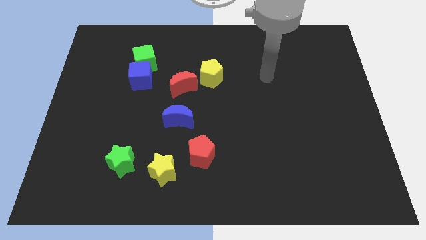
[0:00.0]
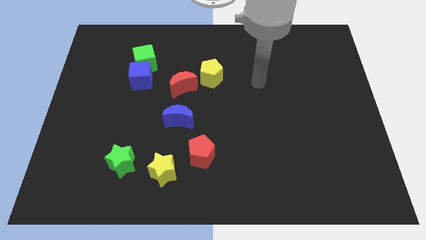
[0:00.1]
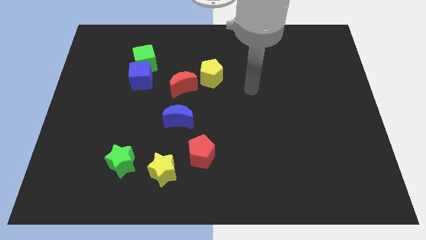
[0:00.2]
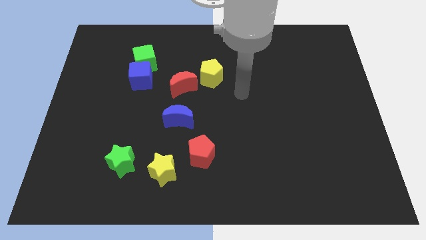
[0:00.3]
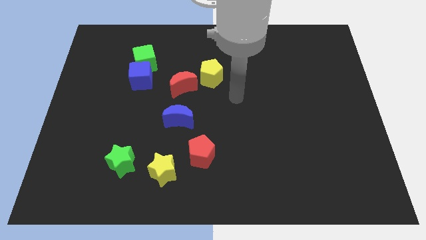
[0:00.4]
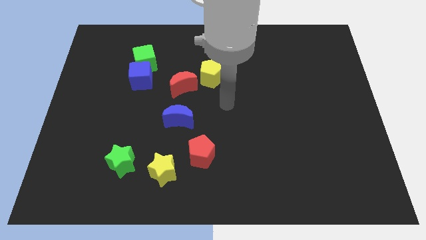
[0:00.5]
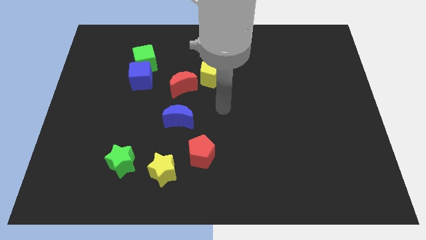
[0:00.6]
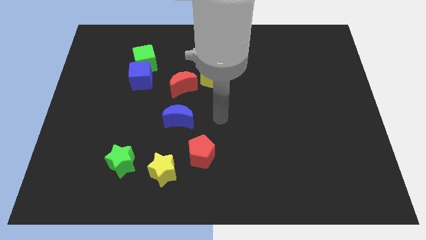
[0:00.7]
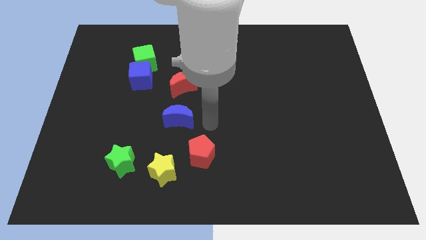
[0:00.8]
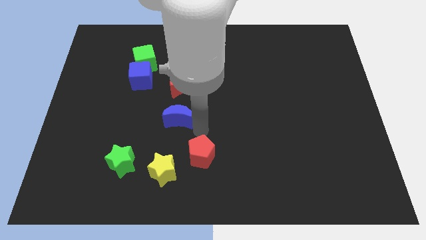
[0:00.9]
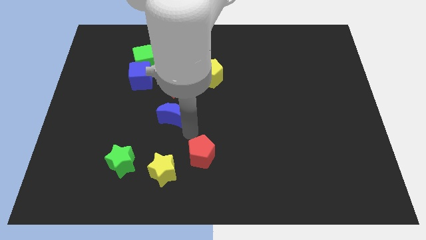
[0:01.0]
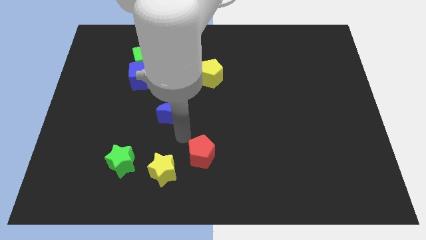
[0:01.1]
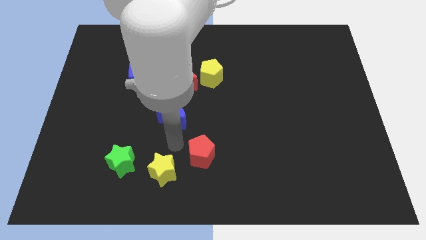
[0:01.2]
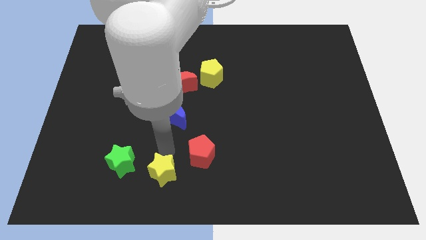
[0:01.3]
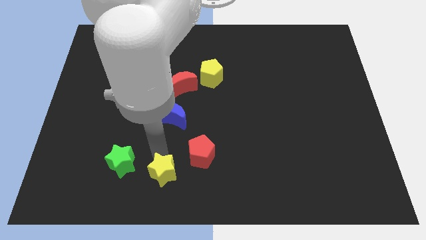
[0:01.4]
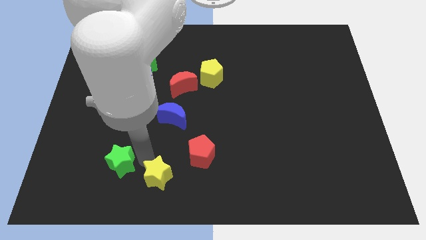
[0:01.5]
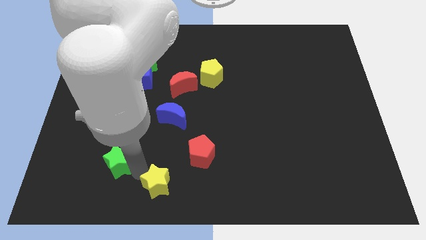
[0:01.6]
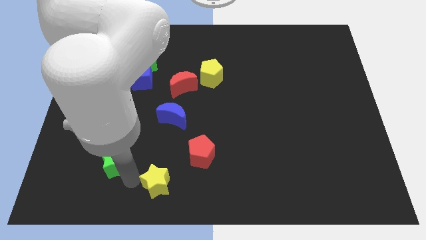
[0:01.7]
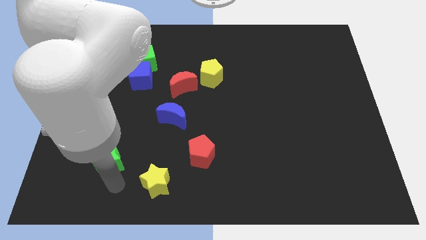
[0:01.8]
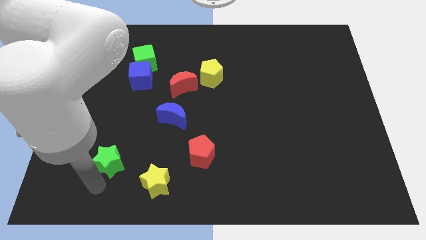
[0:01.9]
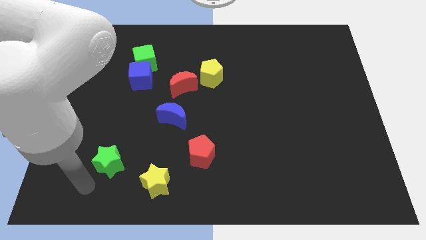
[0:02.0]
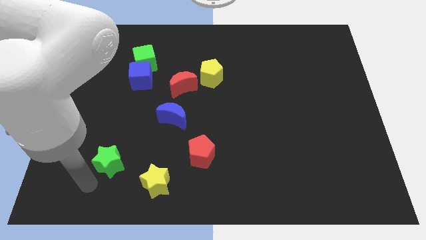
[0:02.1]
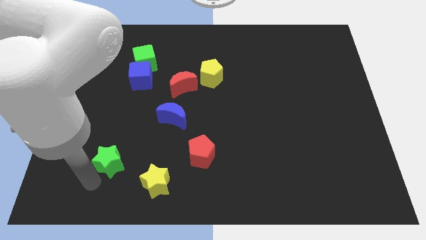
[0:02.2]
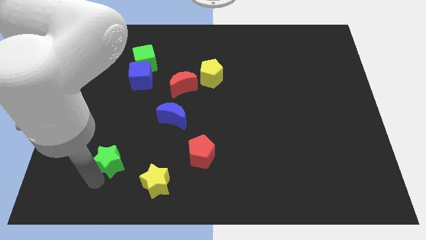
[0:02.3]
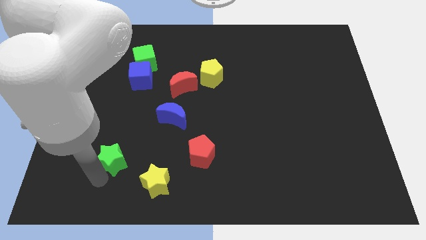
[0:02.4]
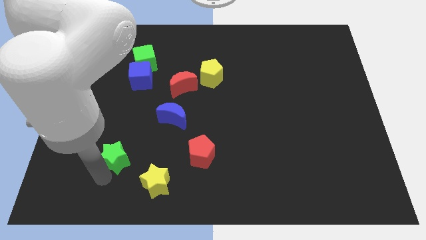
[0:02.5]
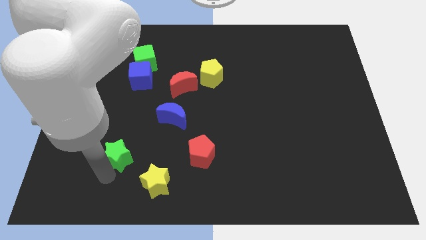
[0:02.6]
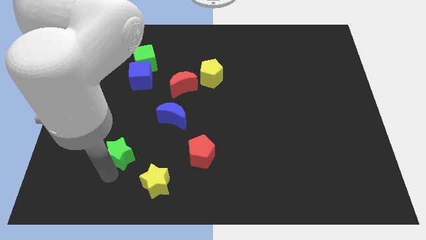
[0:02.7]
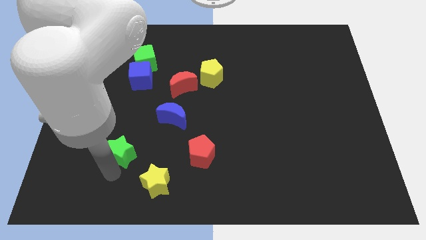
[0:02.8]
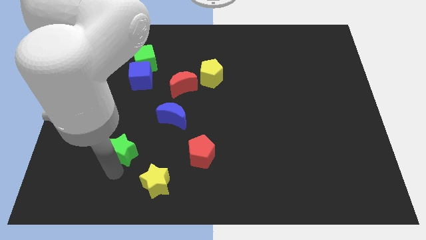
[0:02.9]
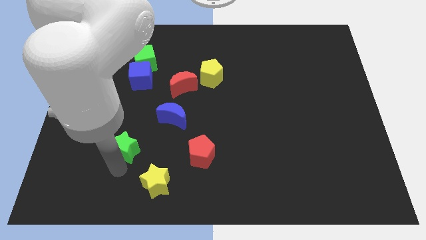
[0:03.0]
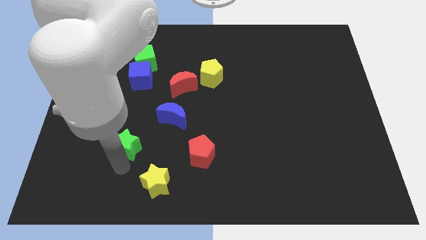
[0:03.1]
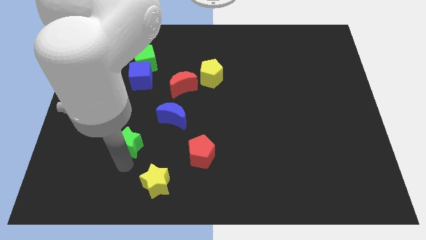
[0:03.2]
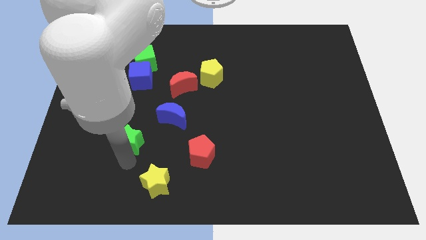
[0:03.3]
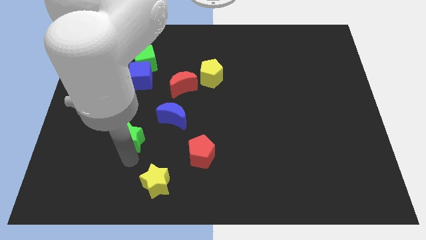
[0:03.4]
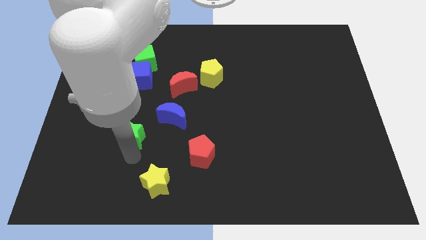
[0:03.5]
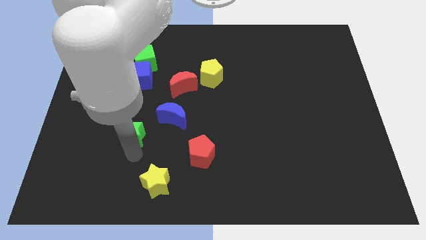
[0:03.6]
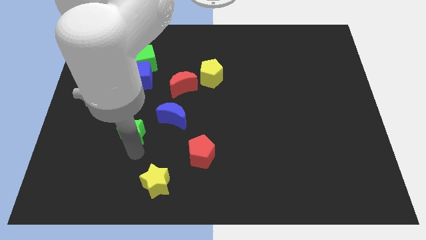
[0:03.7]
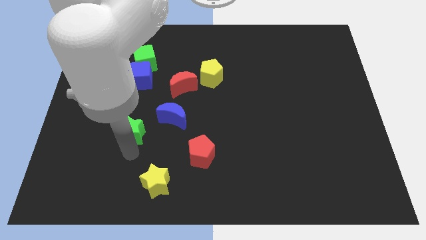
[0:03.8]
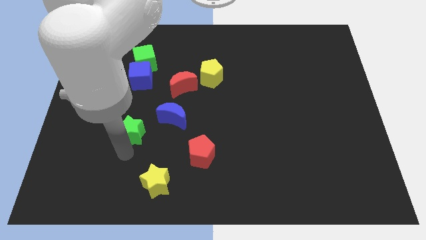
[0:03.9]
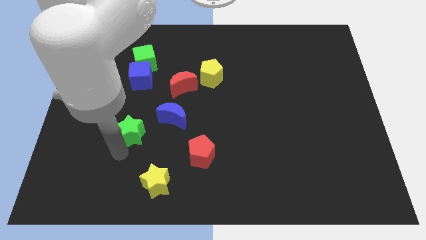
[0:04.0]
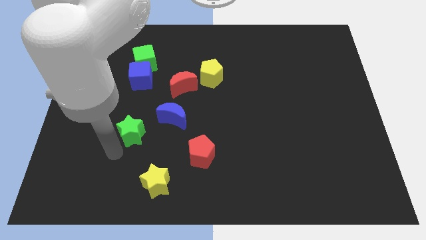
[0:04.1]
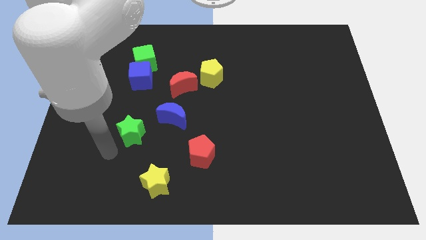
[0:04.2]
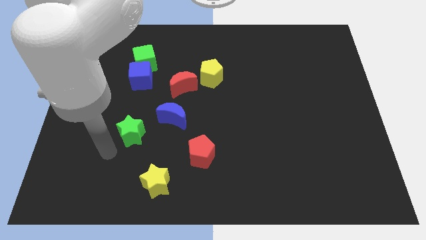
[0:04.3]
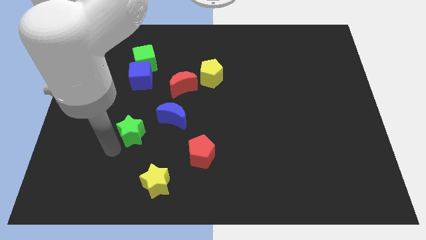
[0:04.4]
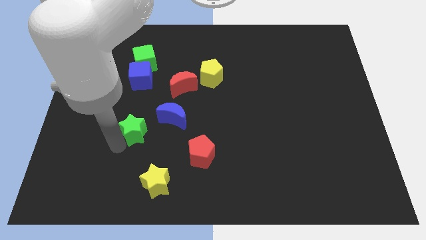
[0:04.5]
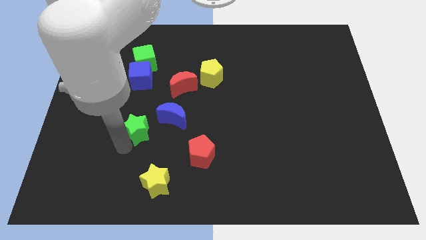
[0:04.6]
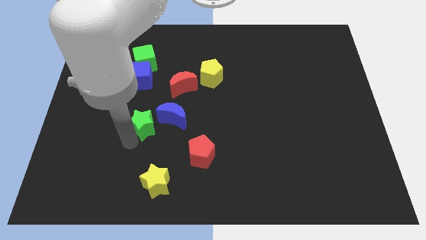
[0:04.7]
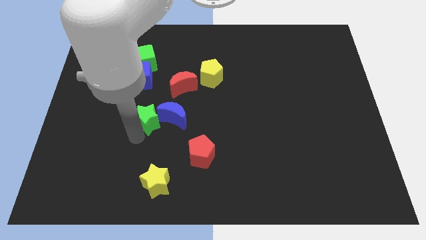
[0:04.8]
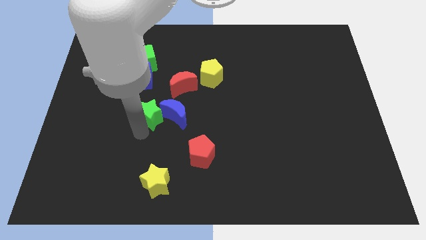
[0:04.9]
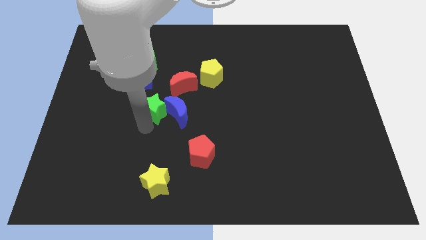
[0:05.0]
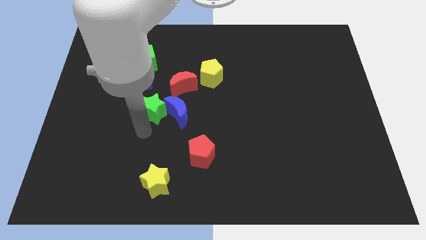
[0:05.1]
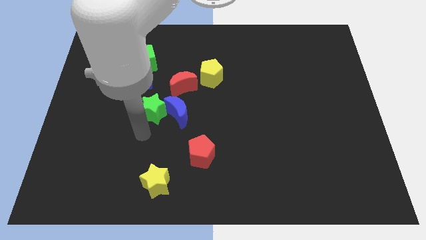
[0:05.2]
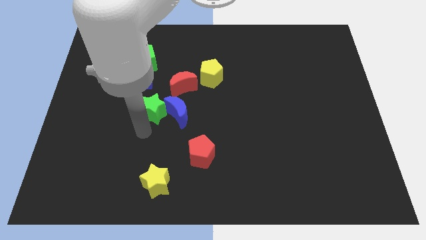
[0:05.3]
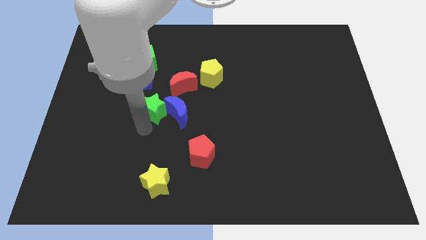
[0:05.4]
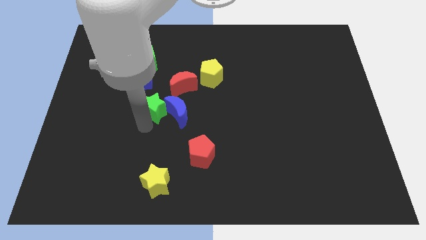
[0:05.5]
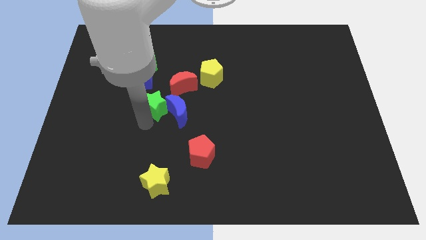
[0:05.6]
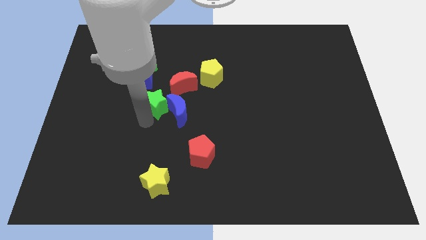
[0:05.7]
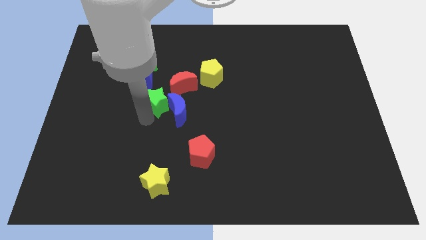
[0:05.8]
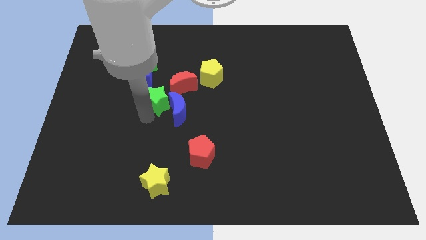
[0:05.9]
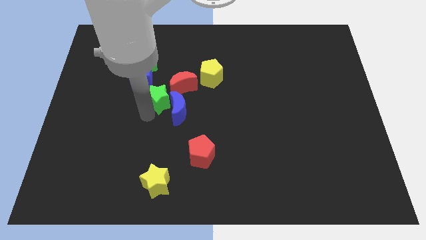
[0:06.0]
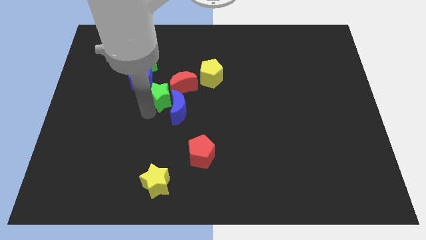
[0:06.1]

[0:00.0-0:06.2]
put the green star to the top of the blue moon

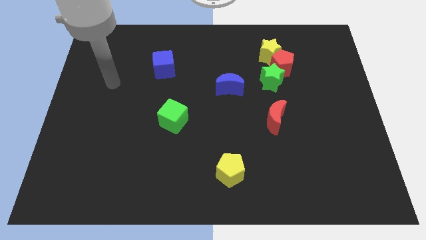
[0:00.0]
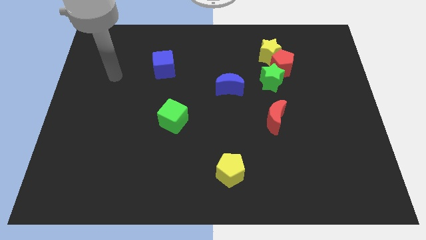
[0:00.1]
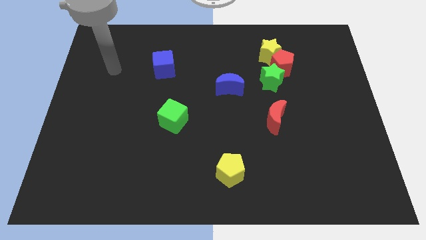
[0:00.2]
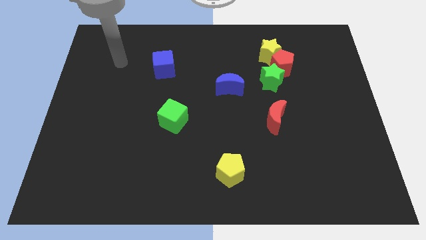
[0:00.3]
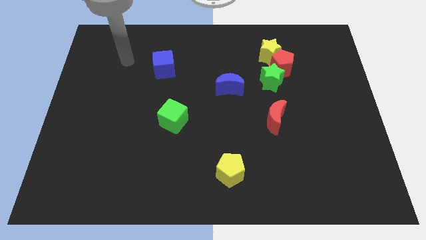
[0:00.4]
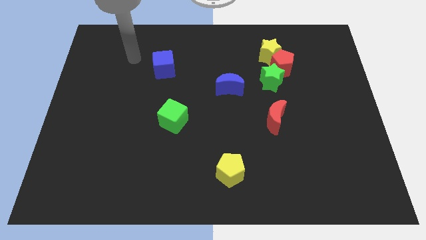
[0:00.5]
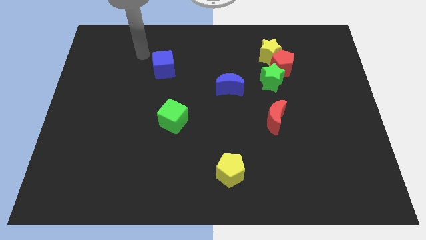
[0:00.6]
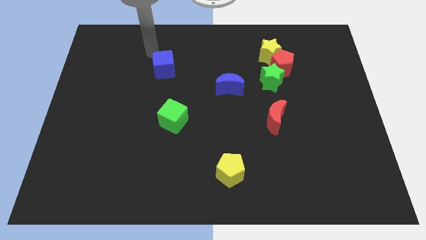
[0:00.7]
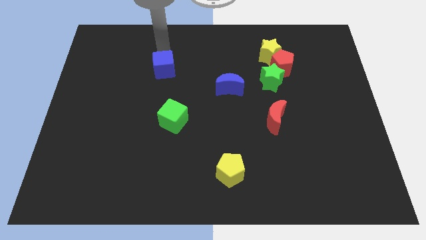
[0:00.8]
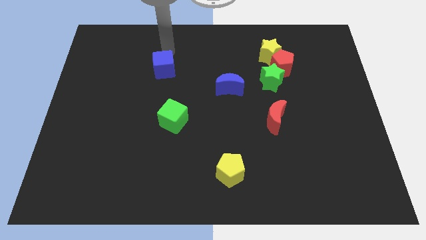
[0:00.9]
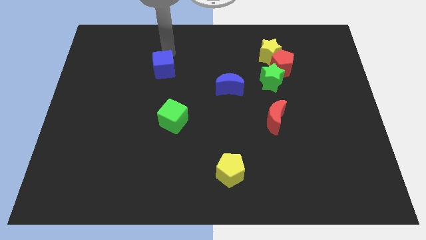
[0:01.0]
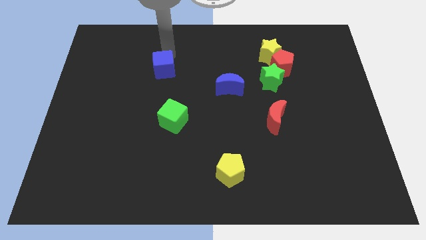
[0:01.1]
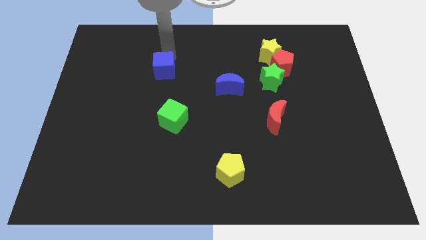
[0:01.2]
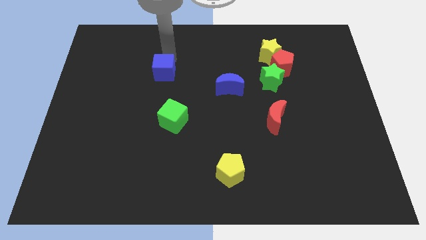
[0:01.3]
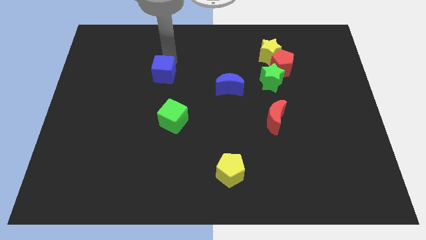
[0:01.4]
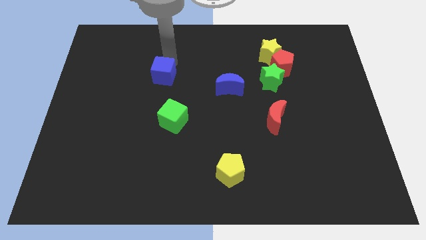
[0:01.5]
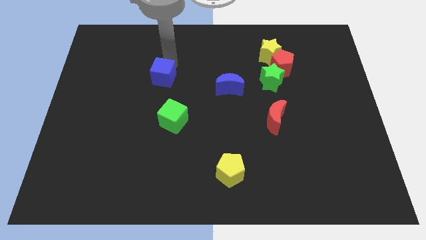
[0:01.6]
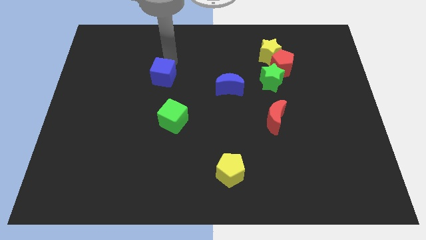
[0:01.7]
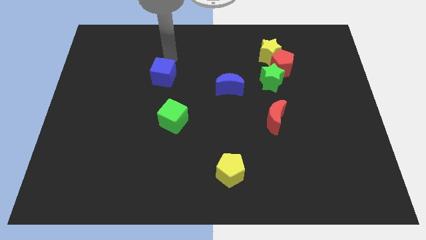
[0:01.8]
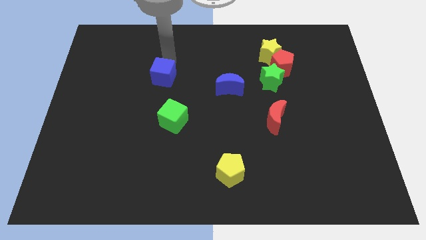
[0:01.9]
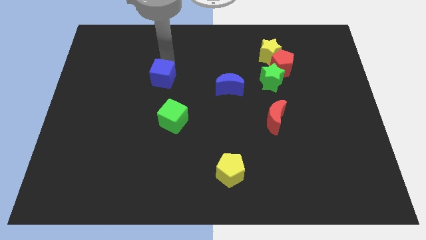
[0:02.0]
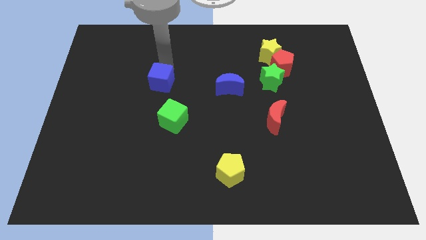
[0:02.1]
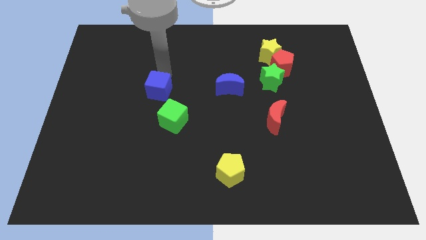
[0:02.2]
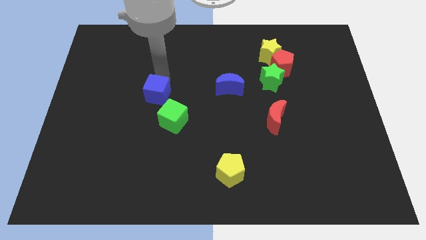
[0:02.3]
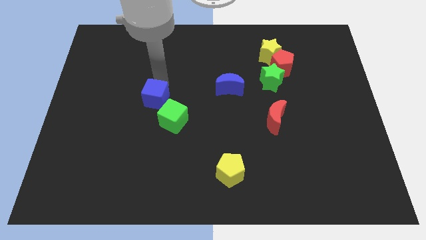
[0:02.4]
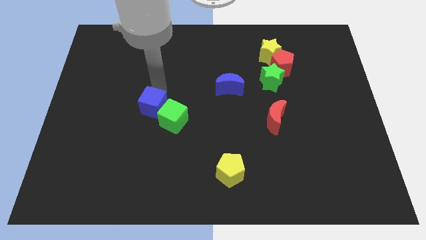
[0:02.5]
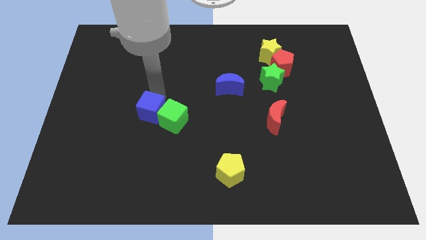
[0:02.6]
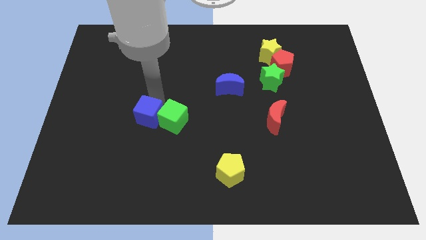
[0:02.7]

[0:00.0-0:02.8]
slide the blue cube to the bottom left side of the green cube
